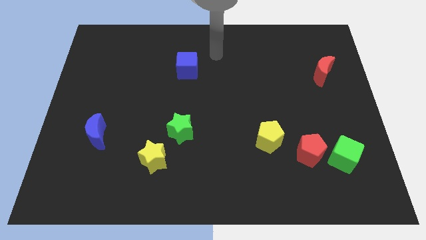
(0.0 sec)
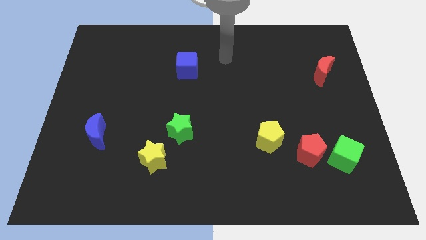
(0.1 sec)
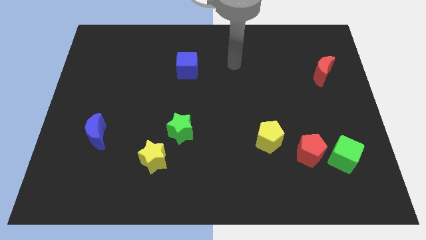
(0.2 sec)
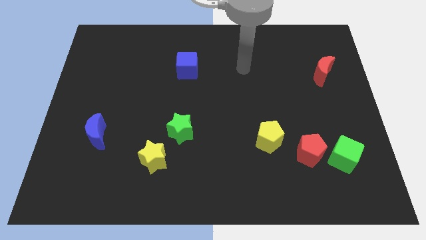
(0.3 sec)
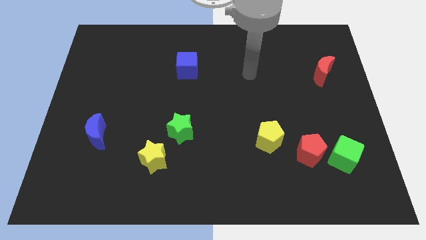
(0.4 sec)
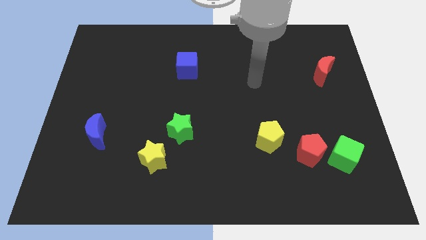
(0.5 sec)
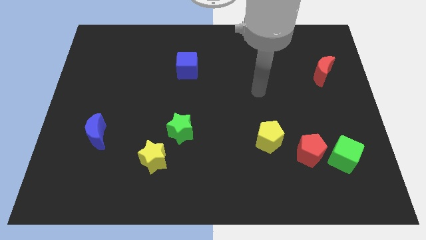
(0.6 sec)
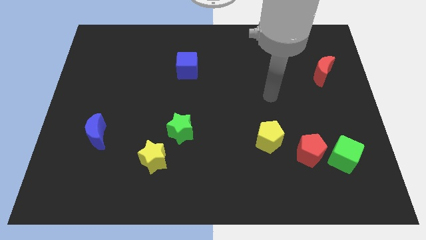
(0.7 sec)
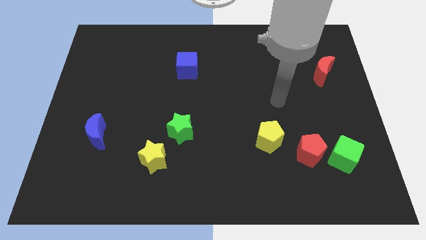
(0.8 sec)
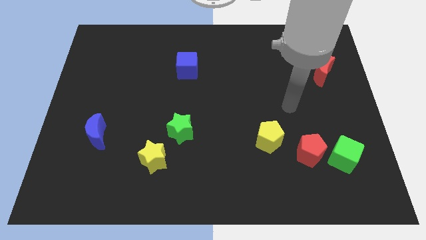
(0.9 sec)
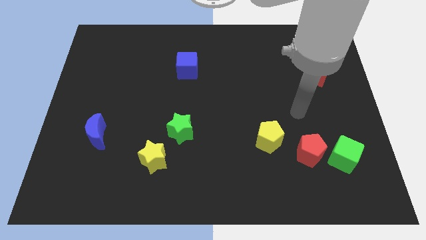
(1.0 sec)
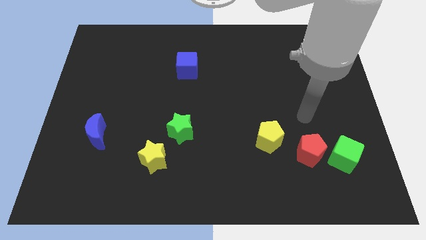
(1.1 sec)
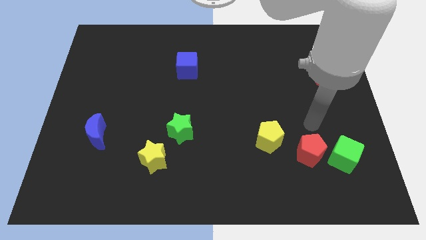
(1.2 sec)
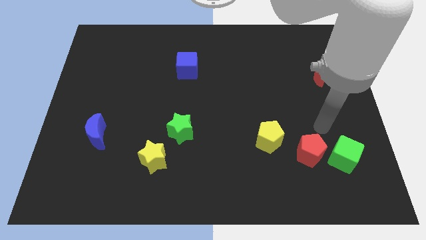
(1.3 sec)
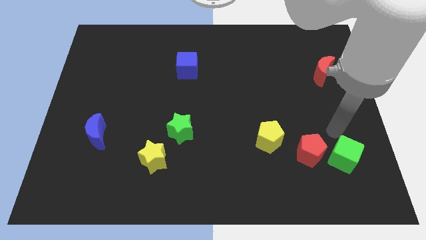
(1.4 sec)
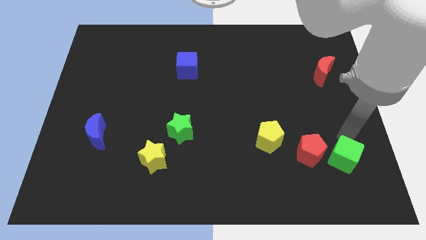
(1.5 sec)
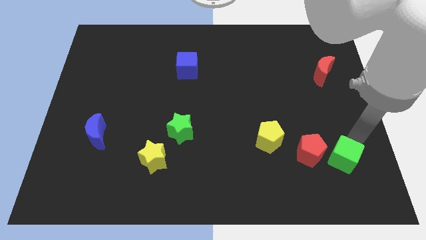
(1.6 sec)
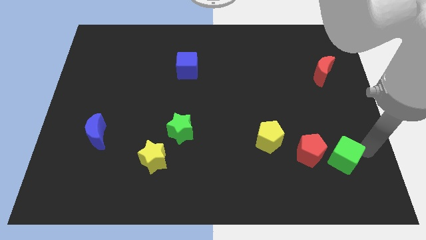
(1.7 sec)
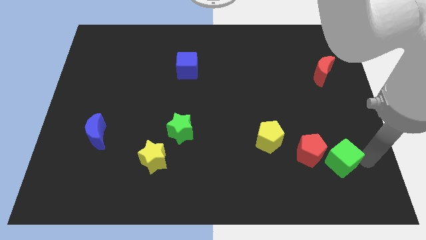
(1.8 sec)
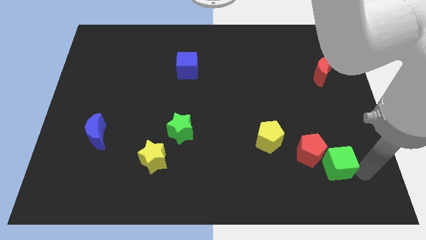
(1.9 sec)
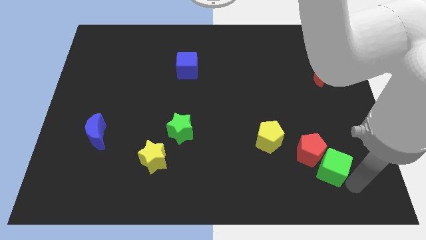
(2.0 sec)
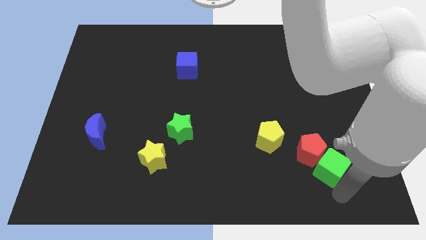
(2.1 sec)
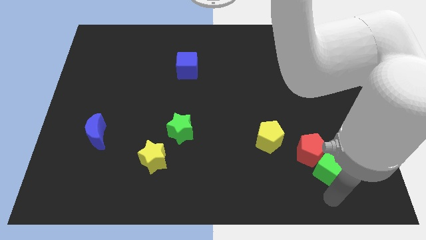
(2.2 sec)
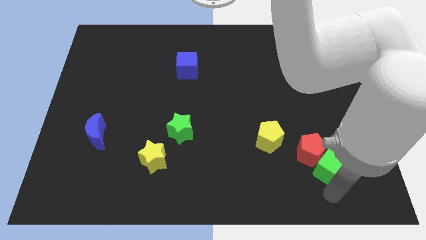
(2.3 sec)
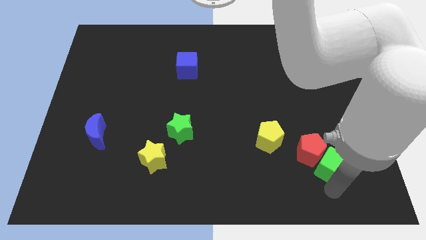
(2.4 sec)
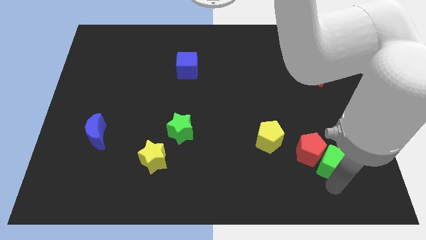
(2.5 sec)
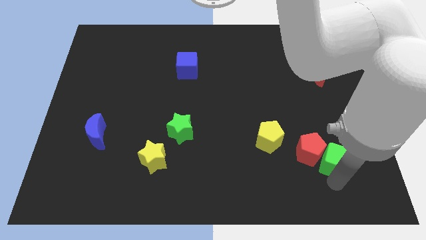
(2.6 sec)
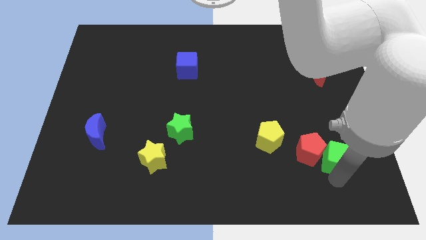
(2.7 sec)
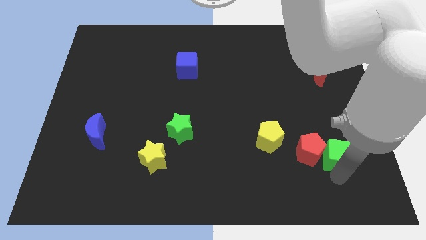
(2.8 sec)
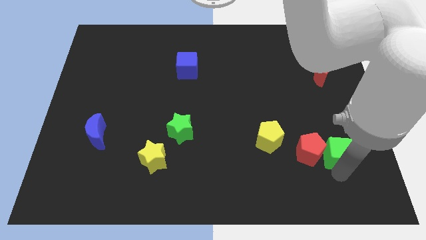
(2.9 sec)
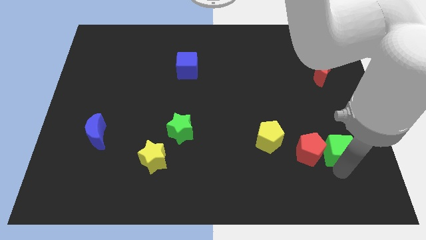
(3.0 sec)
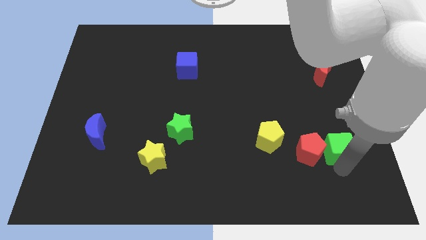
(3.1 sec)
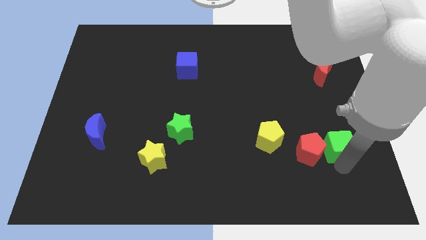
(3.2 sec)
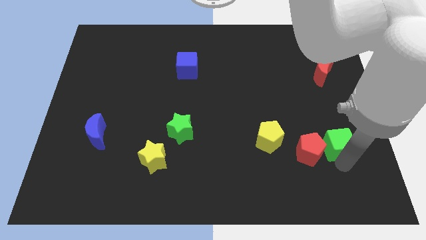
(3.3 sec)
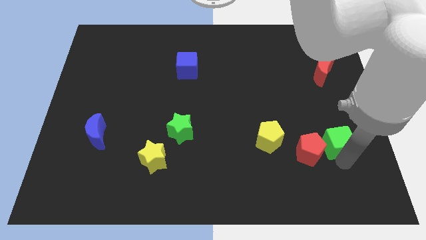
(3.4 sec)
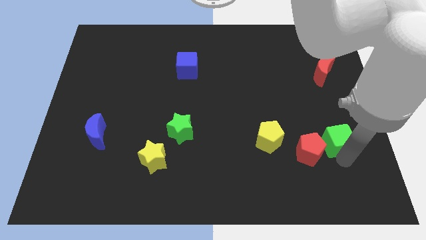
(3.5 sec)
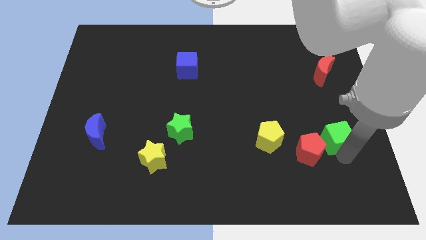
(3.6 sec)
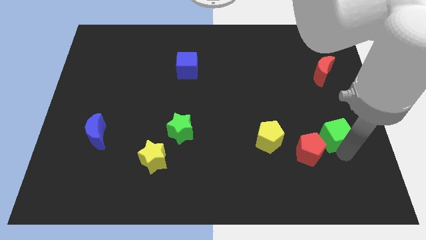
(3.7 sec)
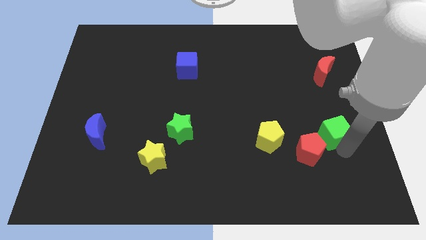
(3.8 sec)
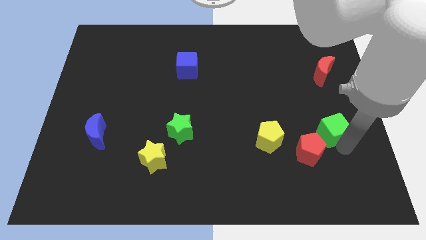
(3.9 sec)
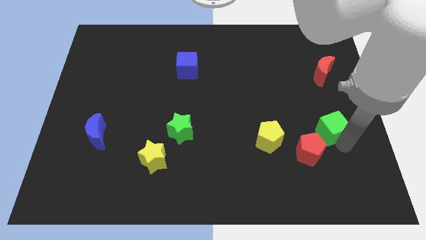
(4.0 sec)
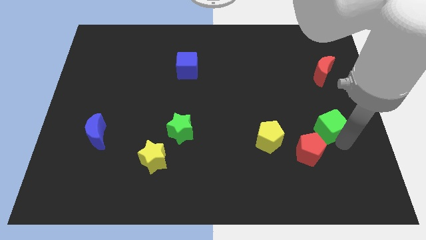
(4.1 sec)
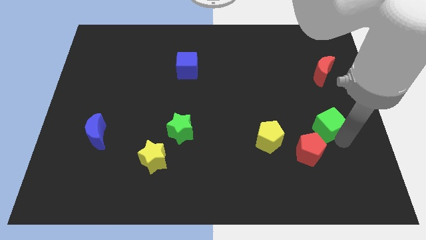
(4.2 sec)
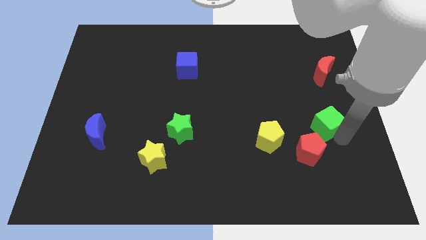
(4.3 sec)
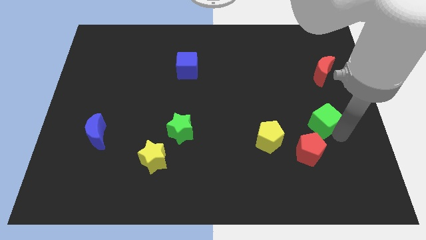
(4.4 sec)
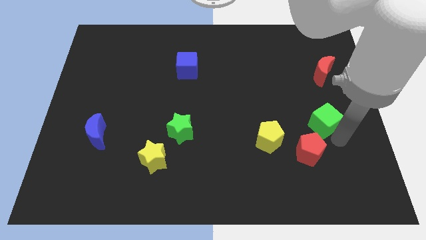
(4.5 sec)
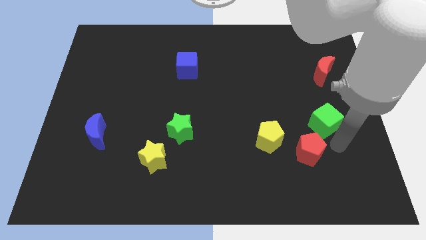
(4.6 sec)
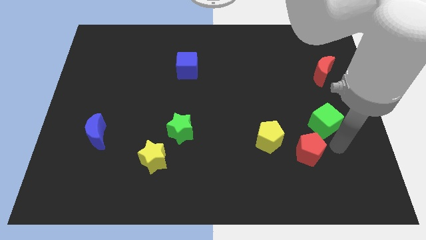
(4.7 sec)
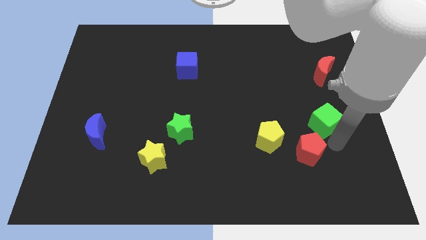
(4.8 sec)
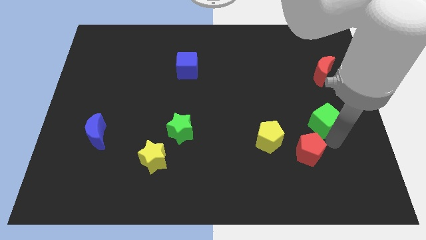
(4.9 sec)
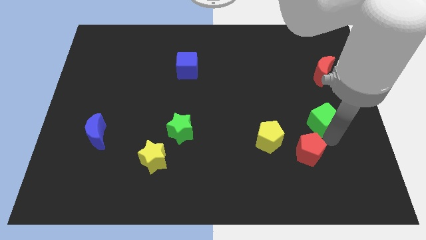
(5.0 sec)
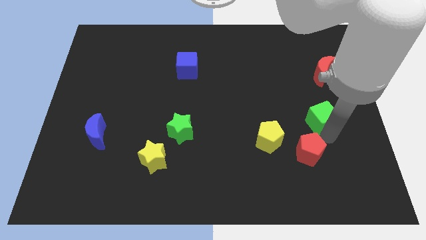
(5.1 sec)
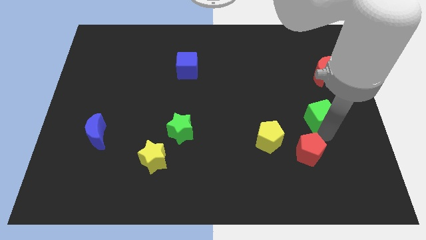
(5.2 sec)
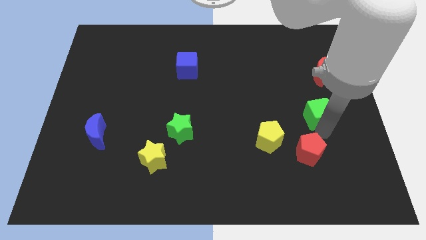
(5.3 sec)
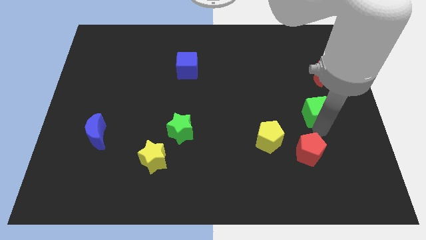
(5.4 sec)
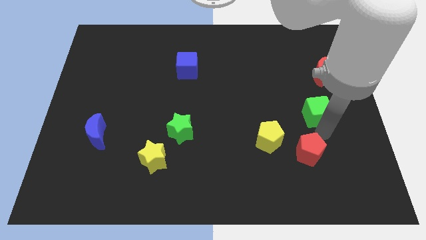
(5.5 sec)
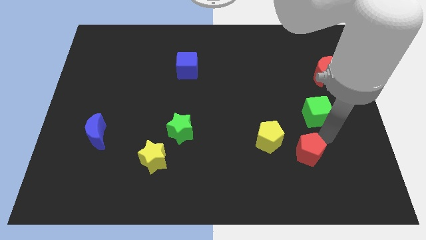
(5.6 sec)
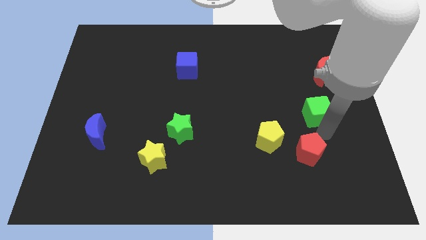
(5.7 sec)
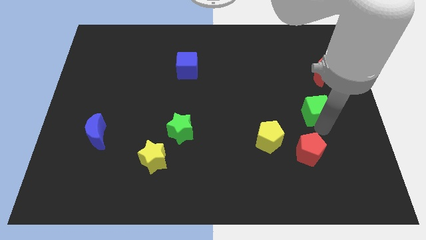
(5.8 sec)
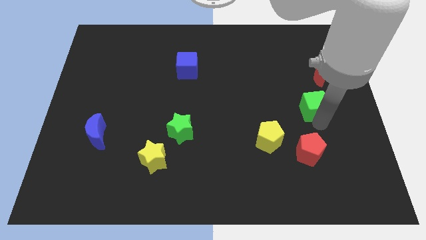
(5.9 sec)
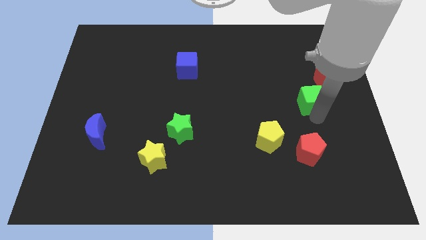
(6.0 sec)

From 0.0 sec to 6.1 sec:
move the green cube to the bottom left of the red moon
